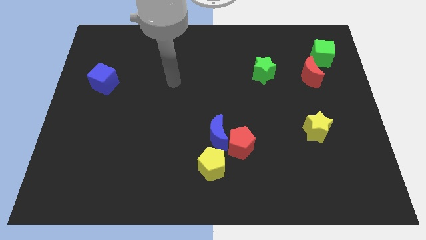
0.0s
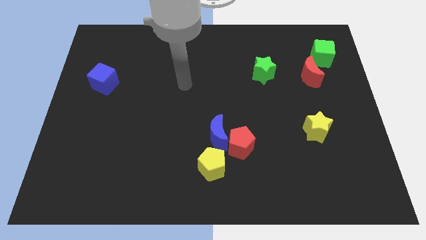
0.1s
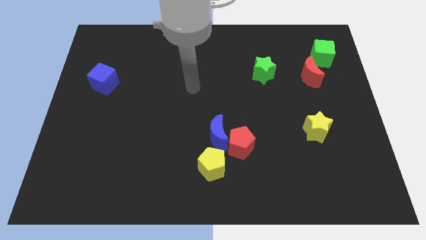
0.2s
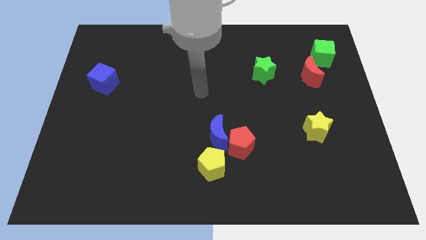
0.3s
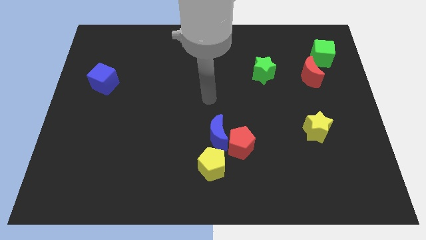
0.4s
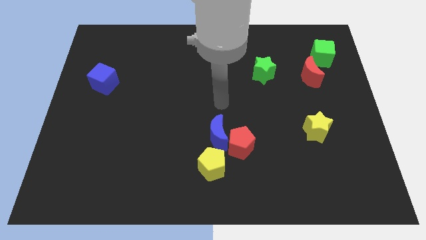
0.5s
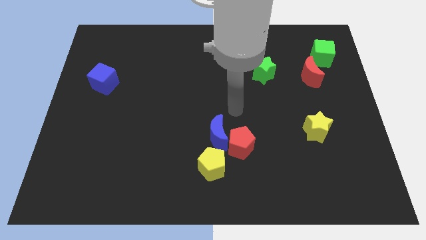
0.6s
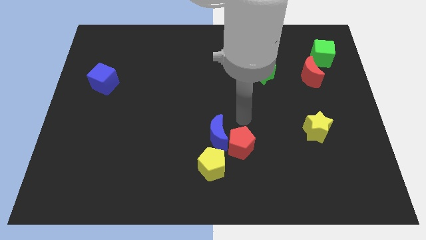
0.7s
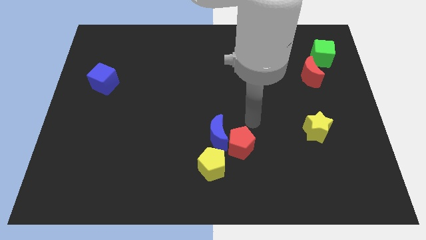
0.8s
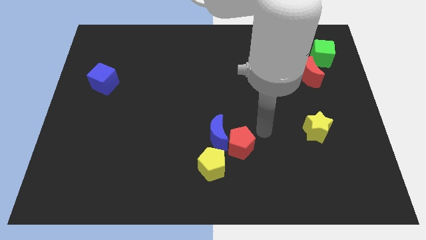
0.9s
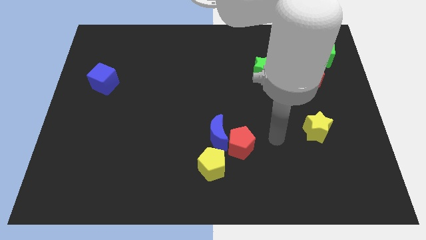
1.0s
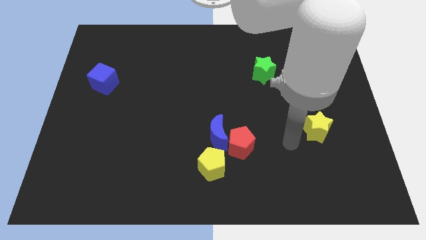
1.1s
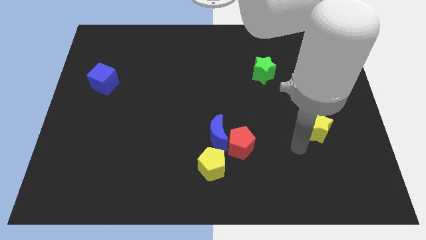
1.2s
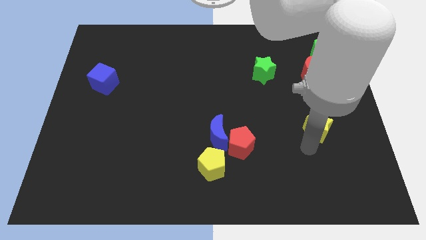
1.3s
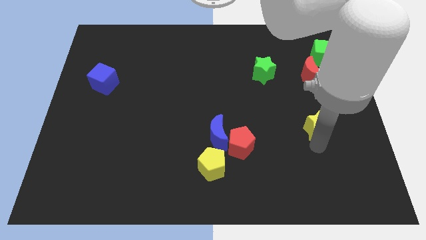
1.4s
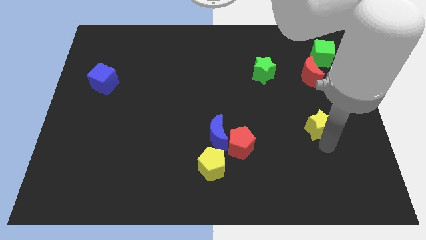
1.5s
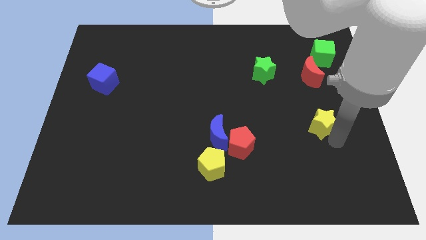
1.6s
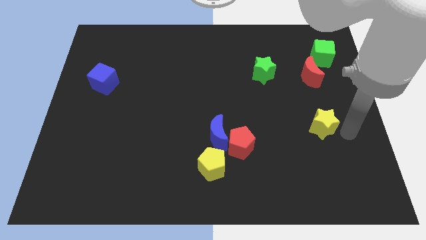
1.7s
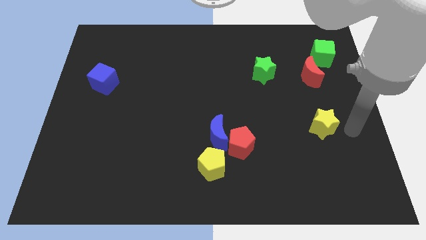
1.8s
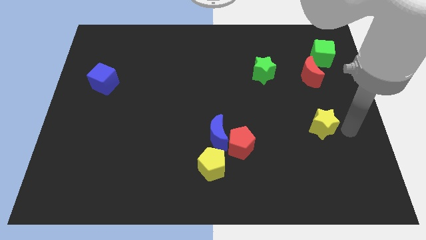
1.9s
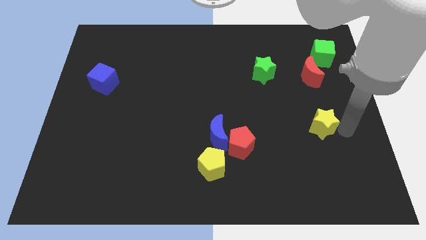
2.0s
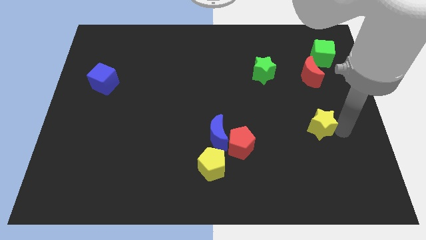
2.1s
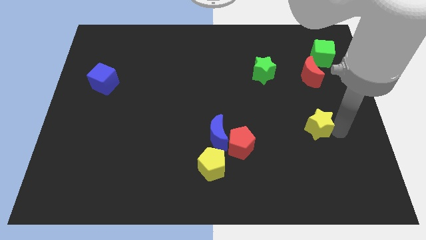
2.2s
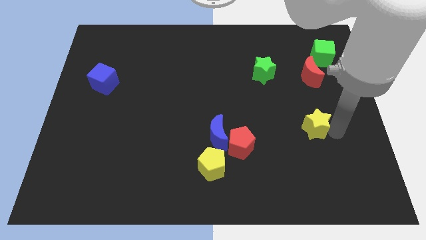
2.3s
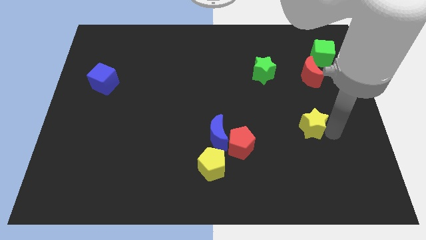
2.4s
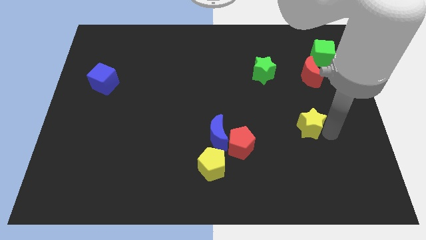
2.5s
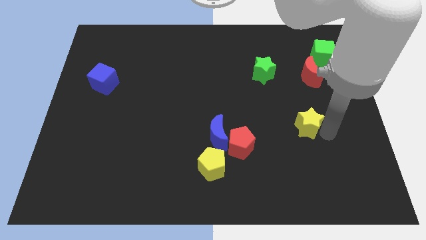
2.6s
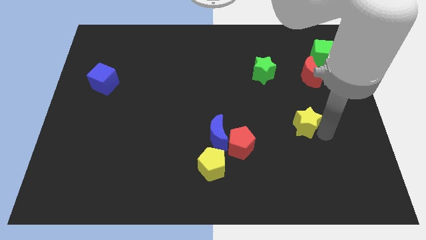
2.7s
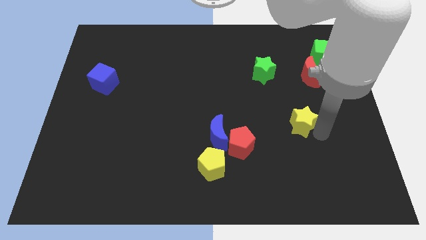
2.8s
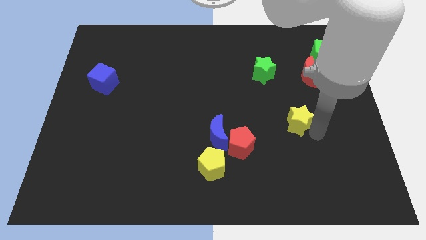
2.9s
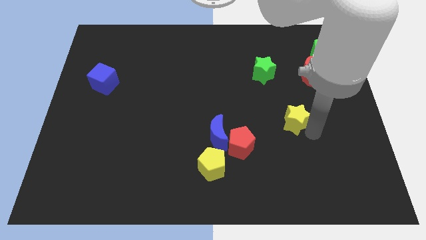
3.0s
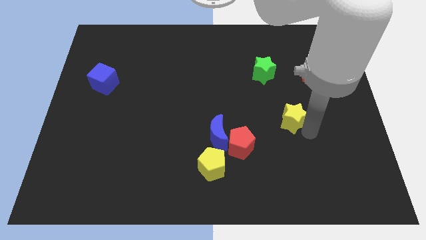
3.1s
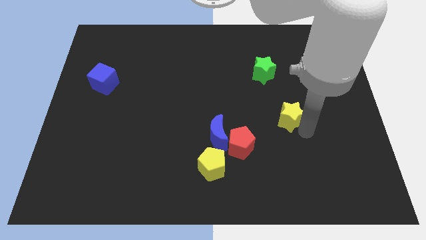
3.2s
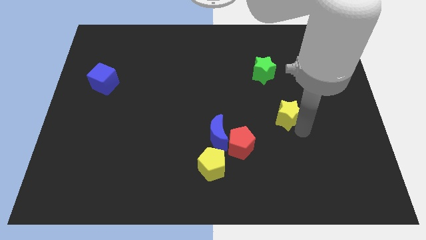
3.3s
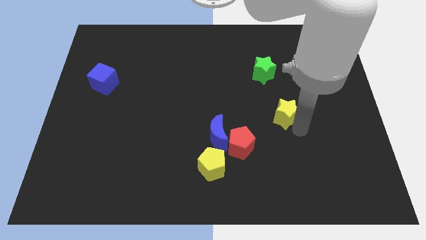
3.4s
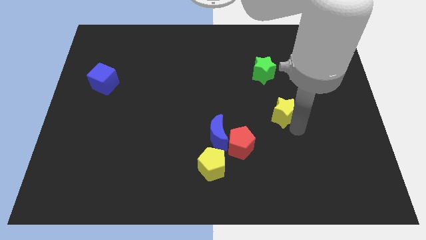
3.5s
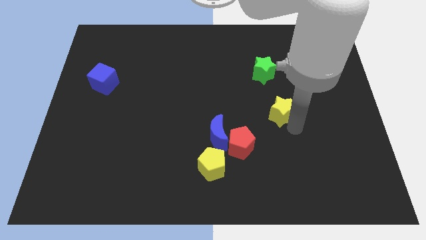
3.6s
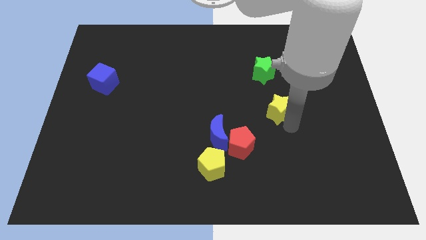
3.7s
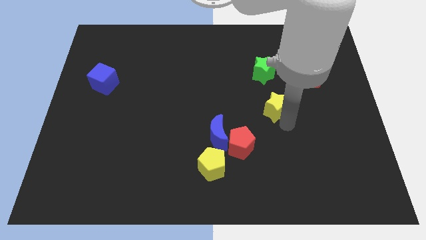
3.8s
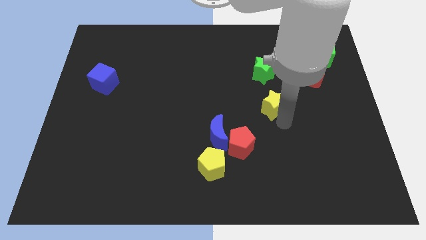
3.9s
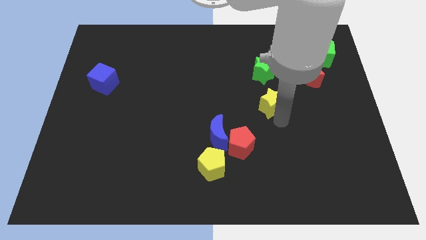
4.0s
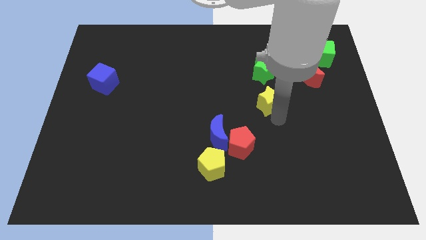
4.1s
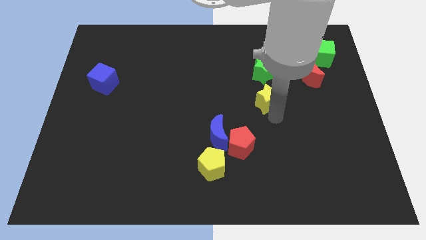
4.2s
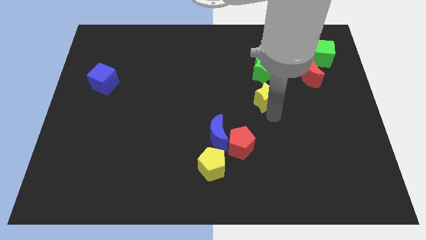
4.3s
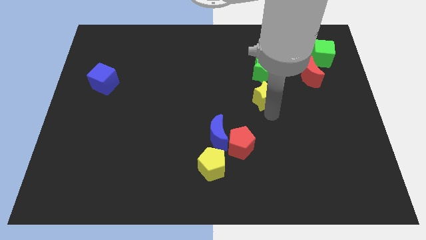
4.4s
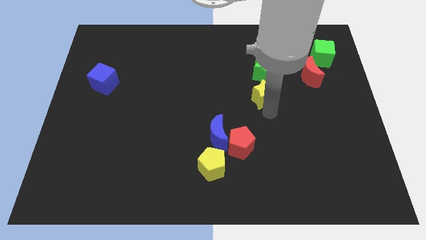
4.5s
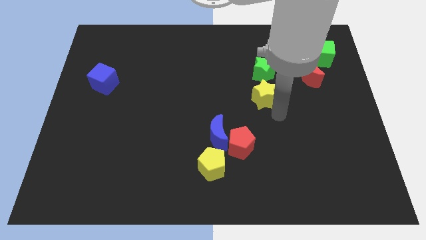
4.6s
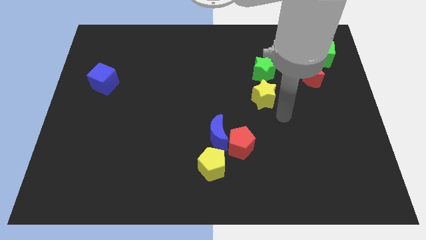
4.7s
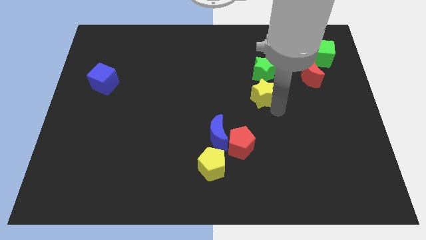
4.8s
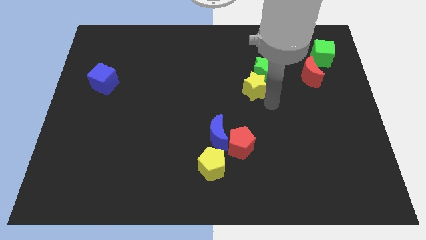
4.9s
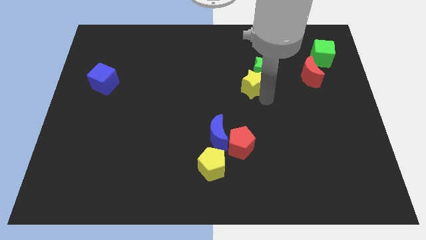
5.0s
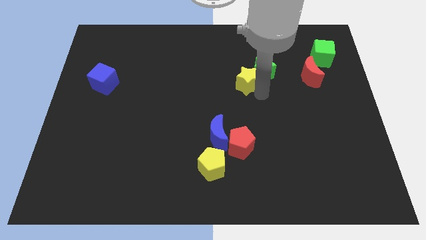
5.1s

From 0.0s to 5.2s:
slide the yellow star up and to the left

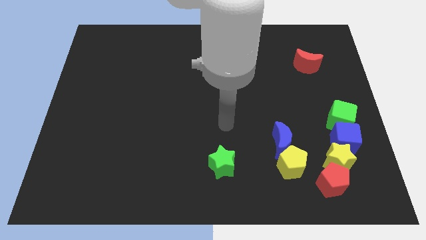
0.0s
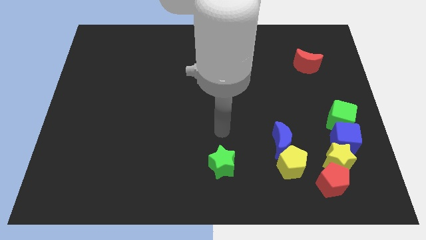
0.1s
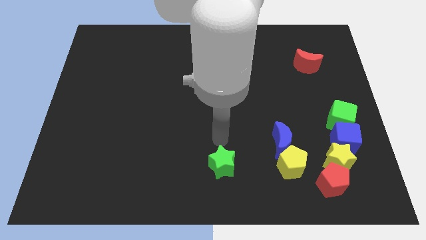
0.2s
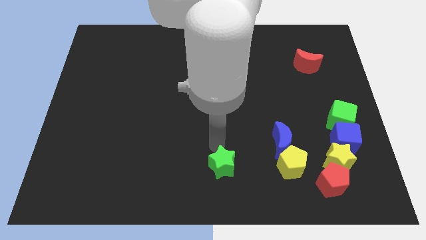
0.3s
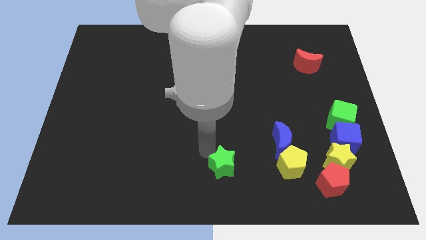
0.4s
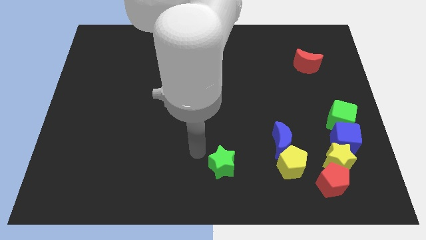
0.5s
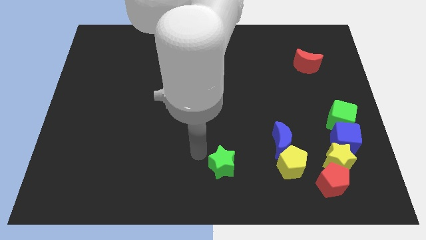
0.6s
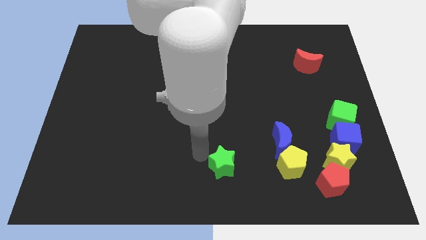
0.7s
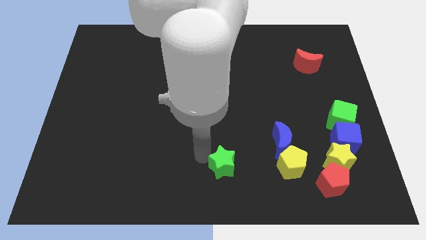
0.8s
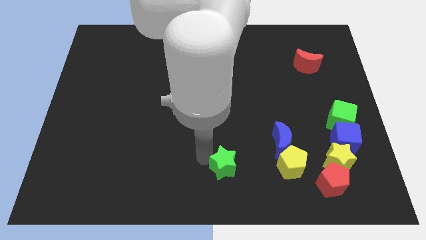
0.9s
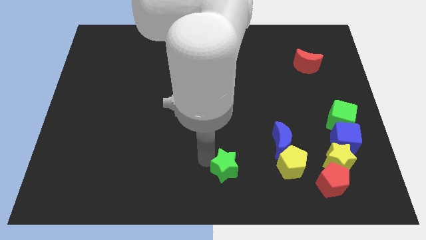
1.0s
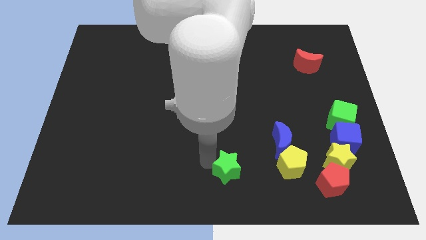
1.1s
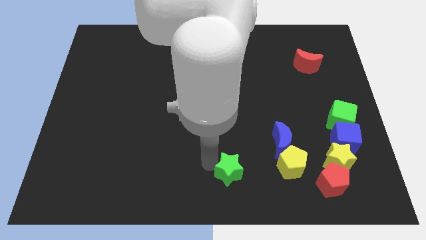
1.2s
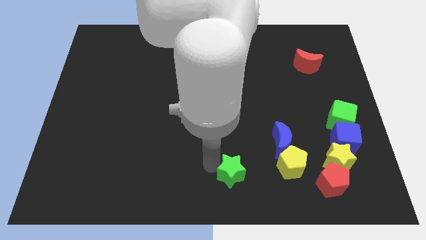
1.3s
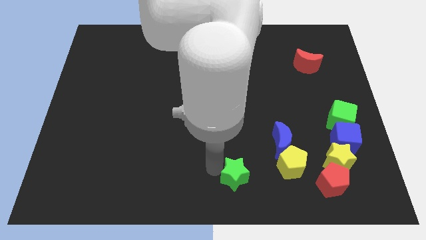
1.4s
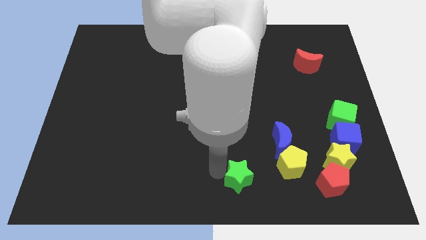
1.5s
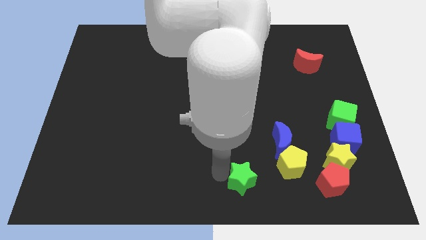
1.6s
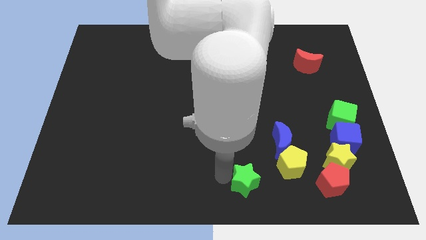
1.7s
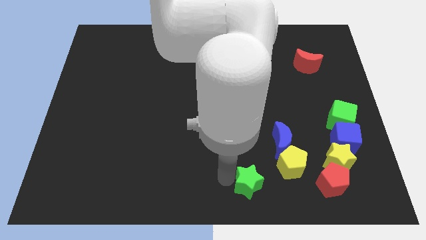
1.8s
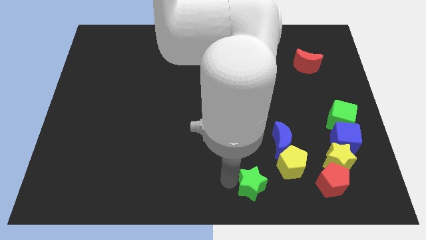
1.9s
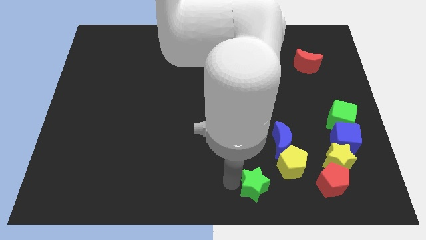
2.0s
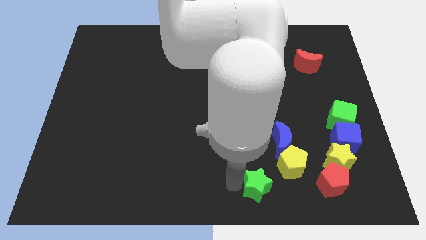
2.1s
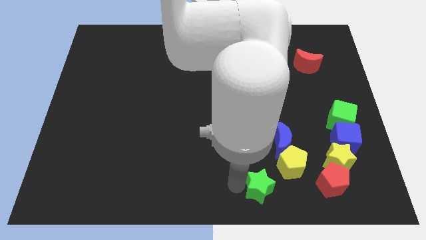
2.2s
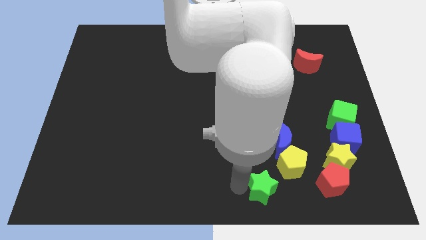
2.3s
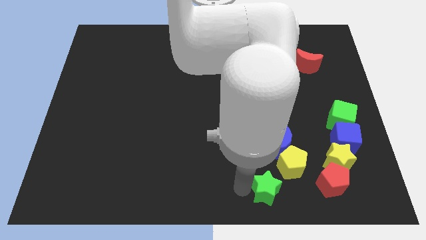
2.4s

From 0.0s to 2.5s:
push the green star a bit right

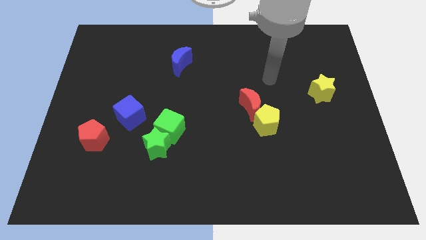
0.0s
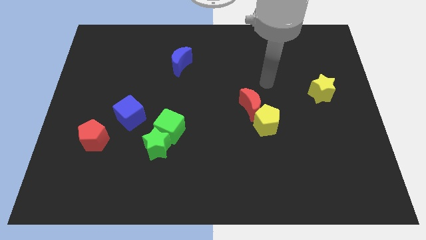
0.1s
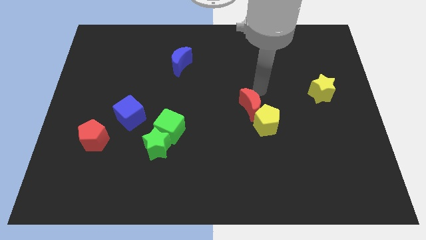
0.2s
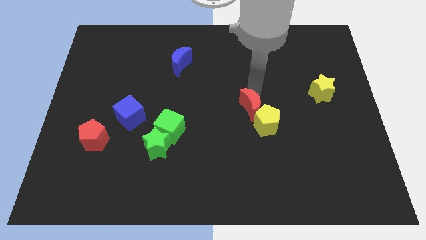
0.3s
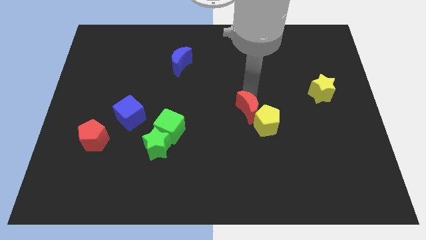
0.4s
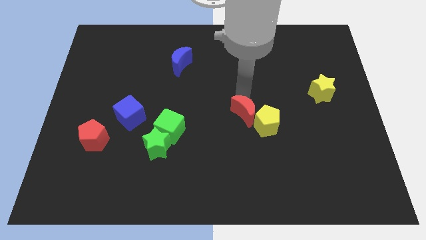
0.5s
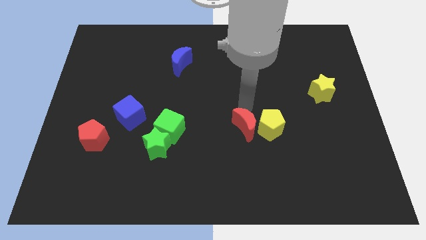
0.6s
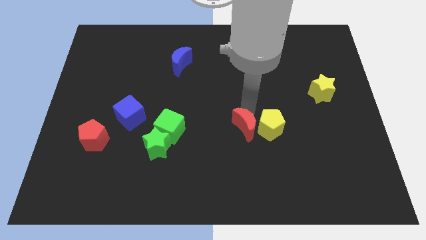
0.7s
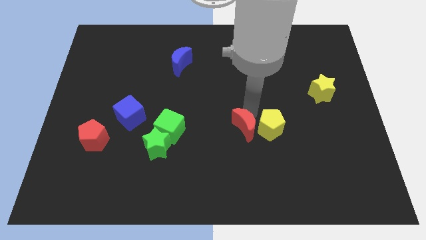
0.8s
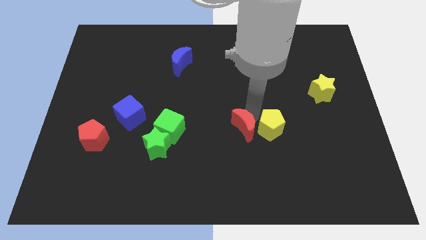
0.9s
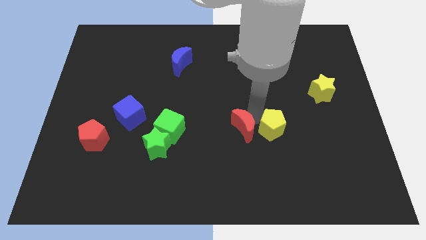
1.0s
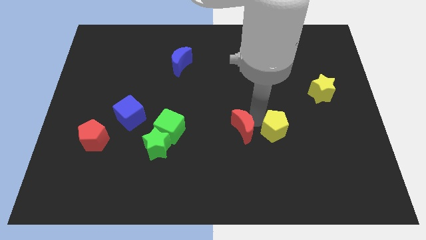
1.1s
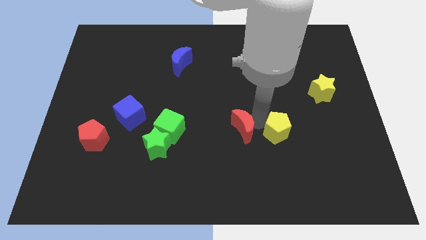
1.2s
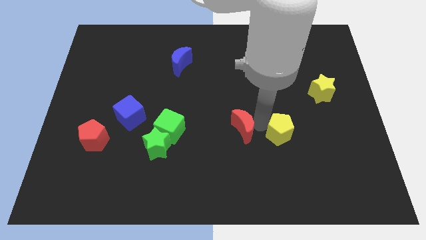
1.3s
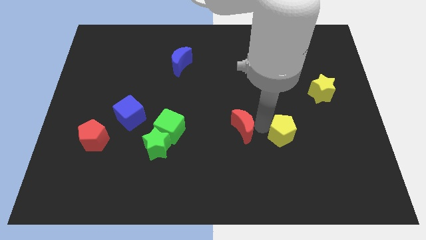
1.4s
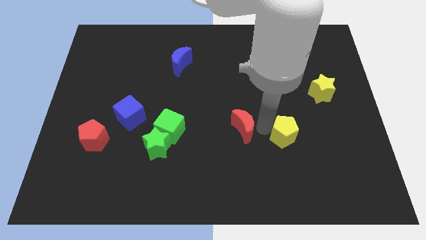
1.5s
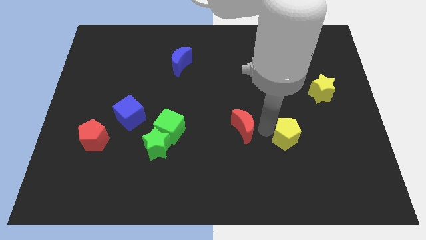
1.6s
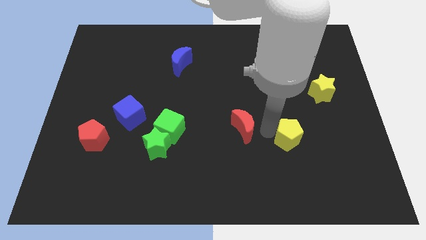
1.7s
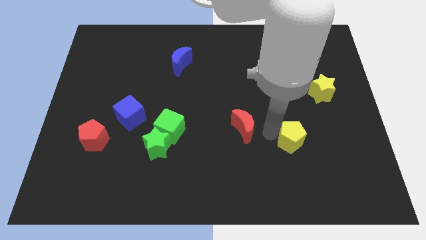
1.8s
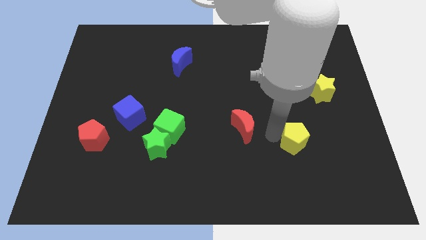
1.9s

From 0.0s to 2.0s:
push the yellow pentagon down and then to the right a little
